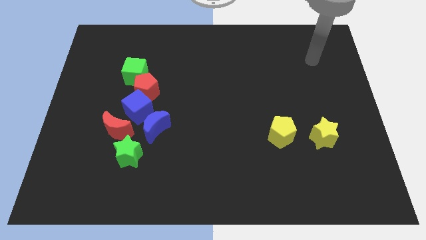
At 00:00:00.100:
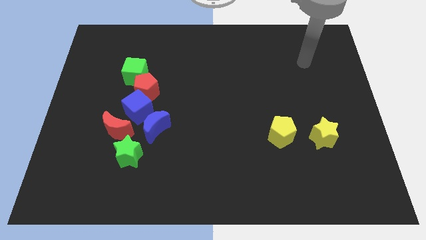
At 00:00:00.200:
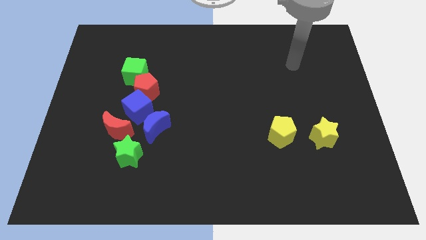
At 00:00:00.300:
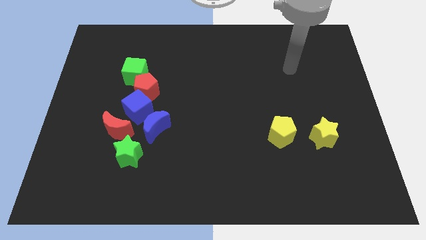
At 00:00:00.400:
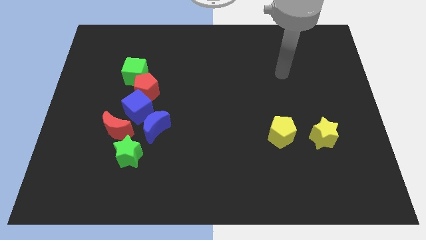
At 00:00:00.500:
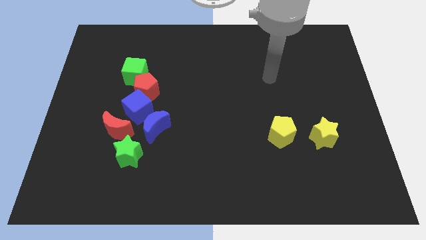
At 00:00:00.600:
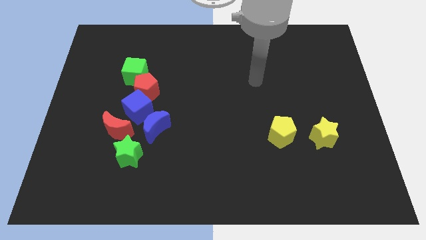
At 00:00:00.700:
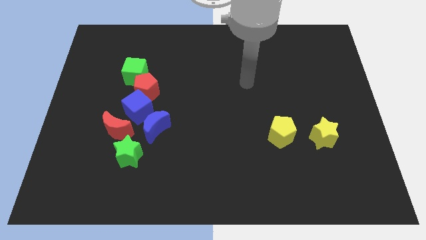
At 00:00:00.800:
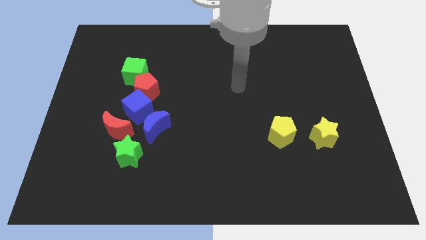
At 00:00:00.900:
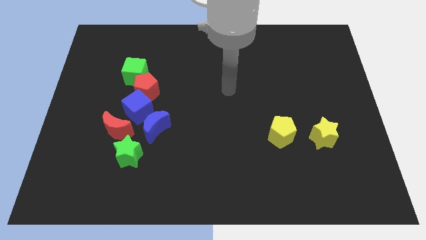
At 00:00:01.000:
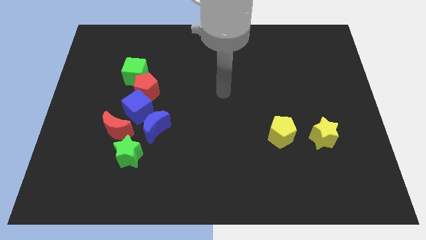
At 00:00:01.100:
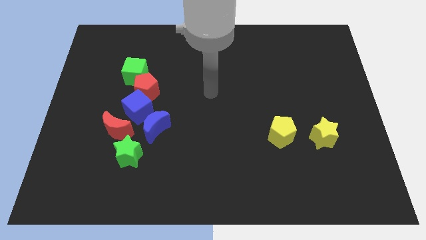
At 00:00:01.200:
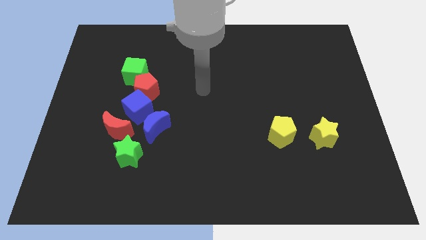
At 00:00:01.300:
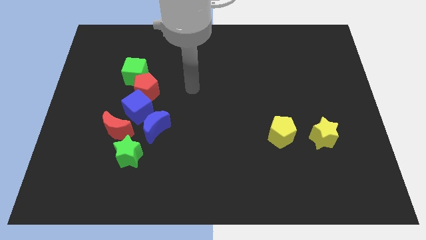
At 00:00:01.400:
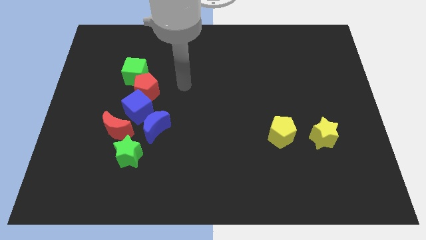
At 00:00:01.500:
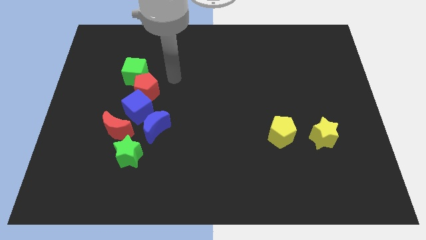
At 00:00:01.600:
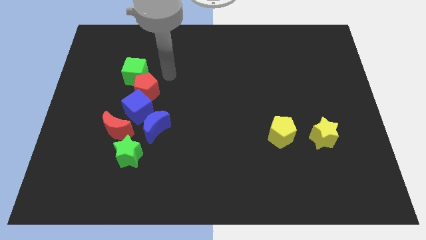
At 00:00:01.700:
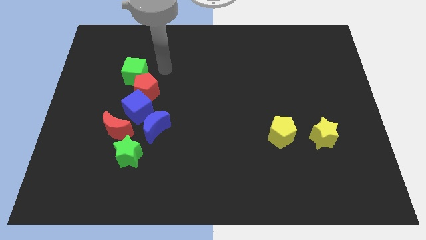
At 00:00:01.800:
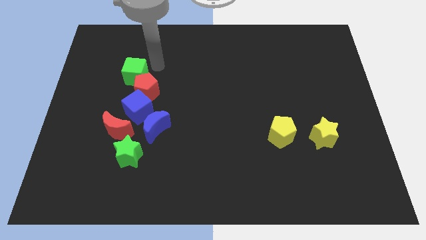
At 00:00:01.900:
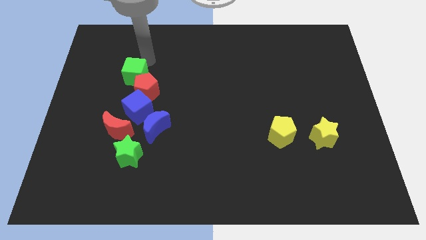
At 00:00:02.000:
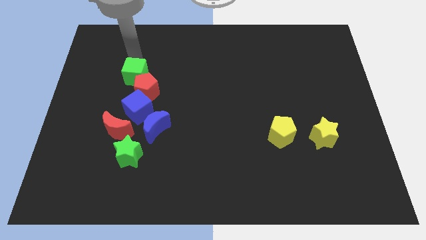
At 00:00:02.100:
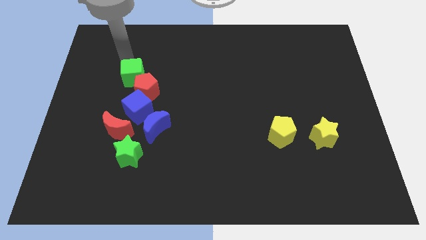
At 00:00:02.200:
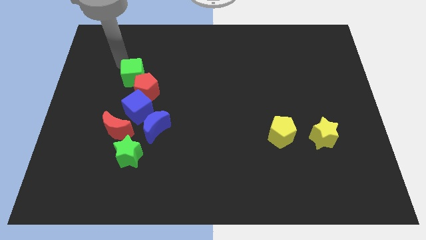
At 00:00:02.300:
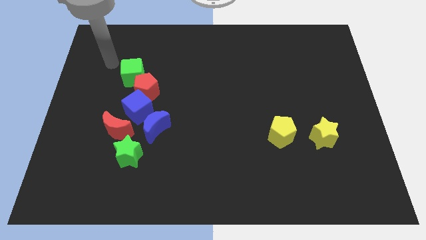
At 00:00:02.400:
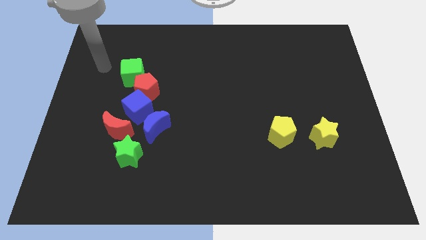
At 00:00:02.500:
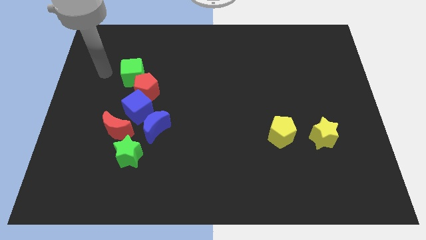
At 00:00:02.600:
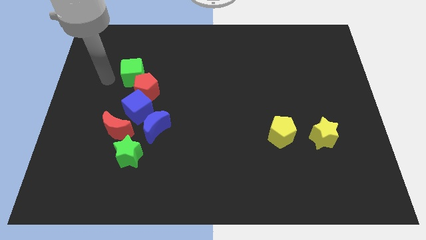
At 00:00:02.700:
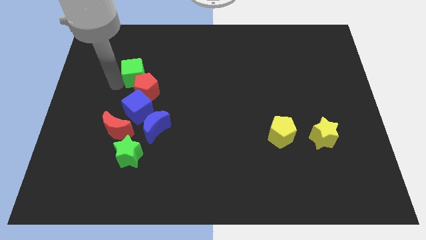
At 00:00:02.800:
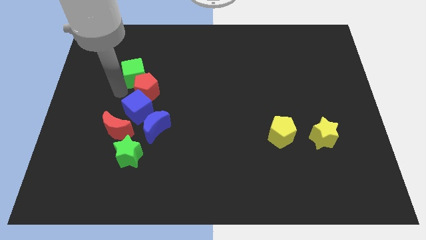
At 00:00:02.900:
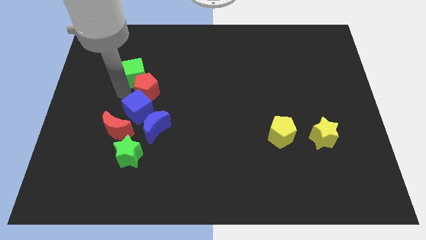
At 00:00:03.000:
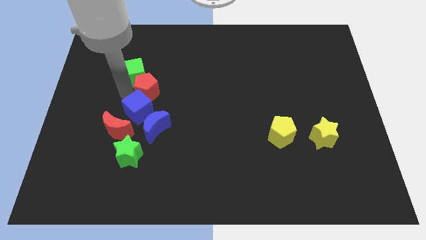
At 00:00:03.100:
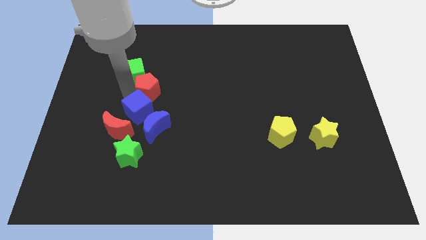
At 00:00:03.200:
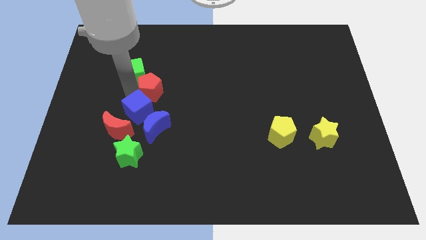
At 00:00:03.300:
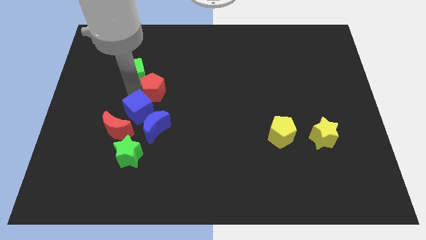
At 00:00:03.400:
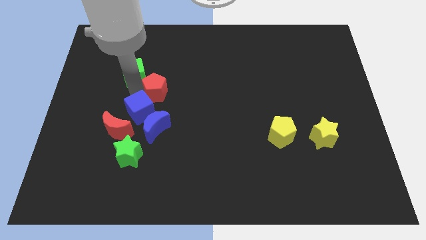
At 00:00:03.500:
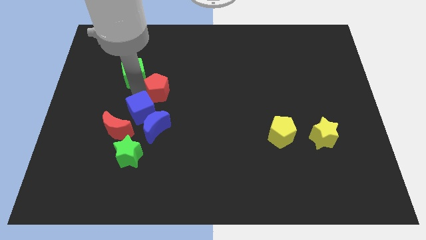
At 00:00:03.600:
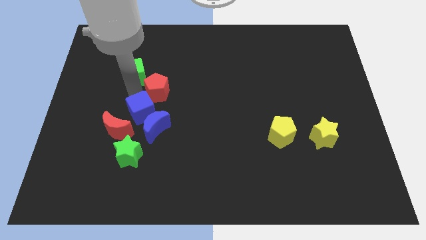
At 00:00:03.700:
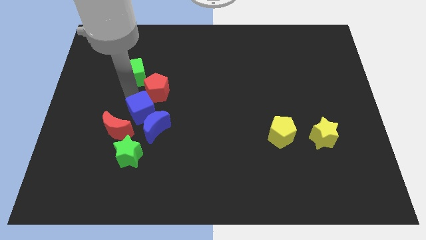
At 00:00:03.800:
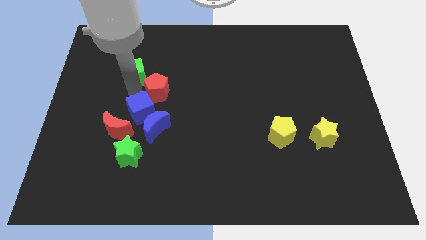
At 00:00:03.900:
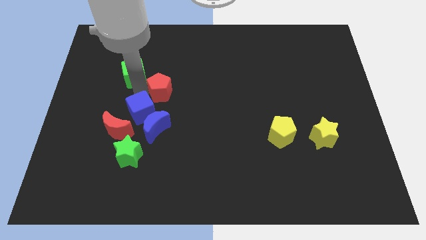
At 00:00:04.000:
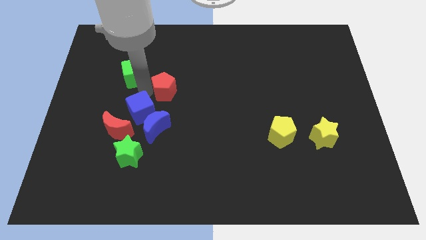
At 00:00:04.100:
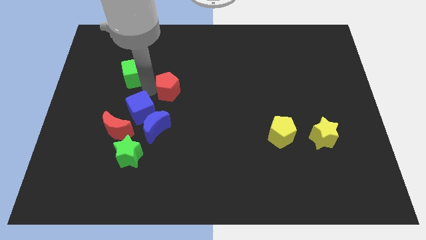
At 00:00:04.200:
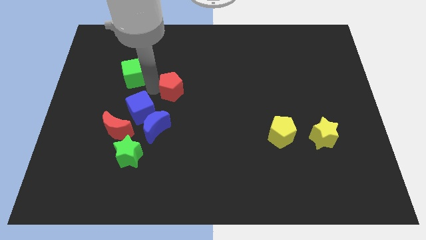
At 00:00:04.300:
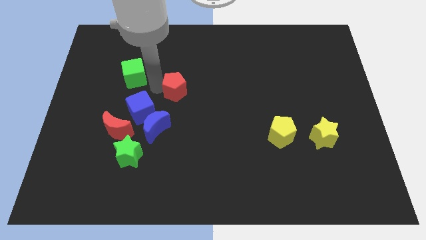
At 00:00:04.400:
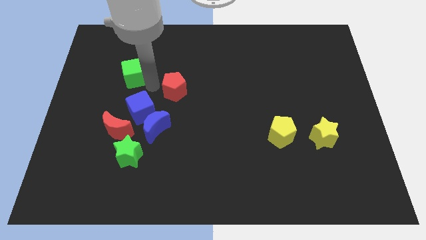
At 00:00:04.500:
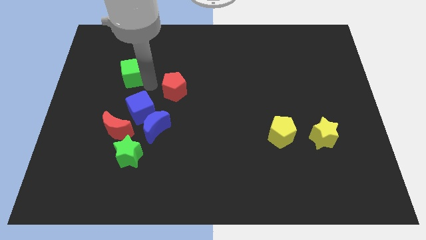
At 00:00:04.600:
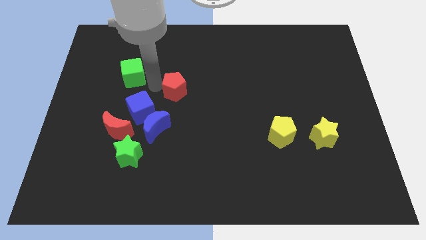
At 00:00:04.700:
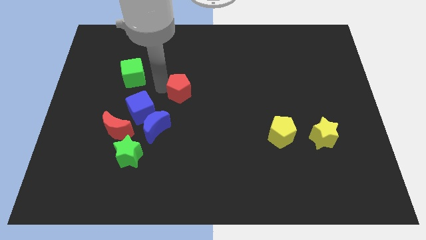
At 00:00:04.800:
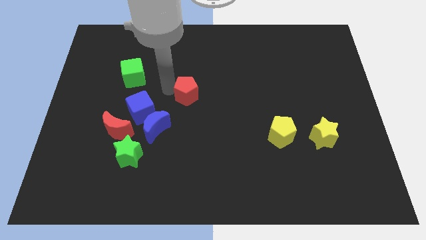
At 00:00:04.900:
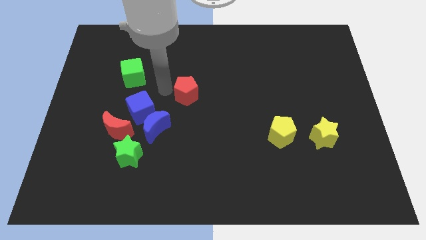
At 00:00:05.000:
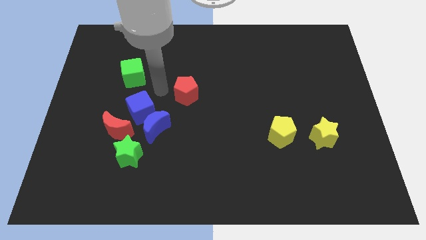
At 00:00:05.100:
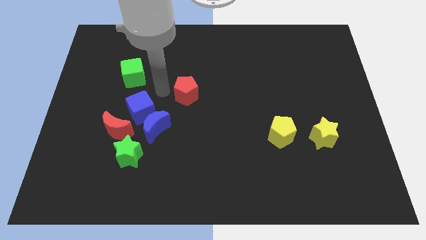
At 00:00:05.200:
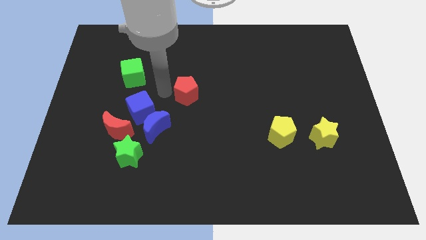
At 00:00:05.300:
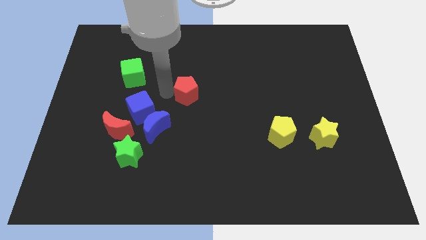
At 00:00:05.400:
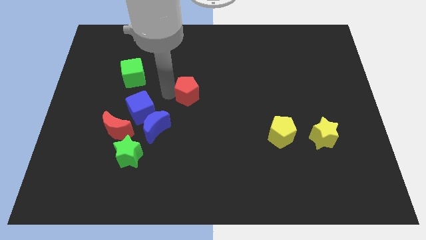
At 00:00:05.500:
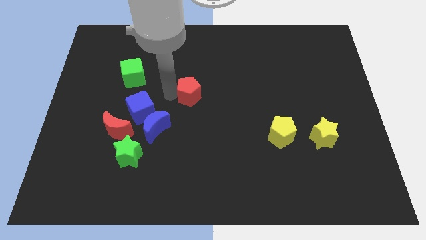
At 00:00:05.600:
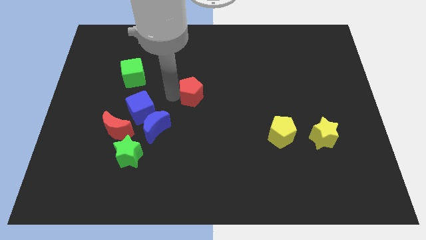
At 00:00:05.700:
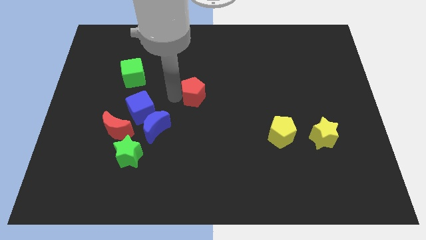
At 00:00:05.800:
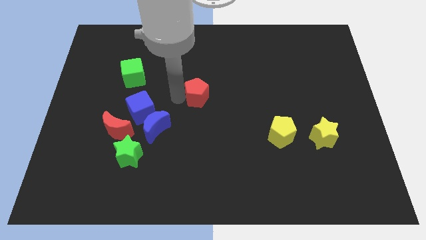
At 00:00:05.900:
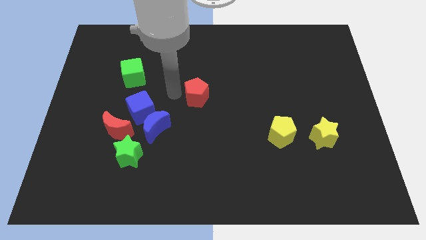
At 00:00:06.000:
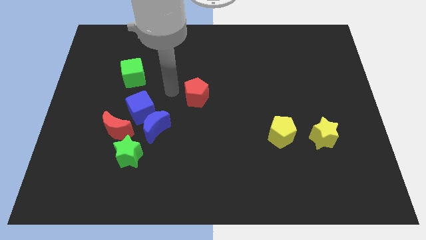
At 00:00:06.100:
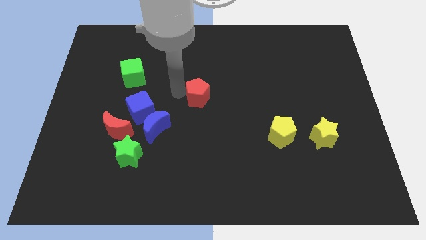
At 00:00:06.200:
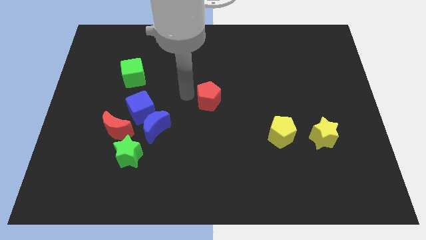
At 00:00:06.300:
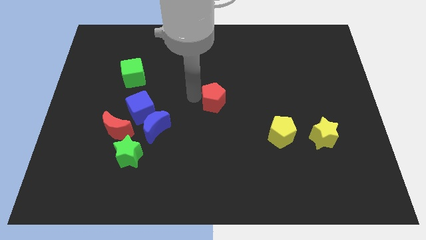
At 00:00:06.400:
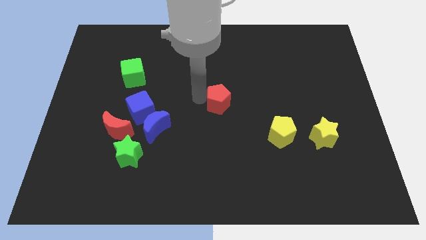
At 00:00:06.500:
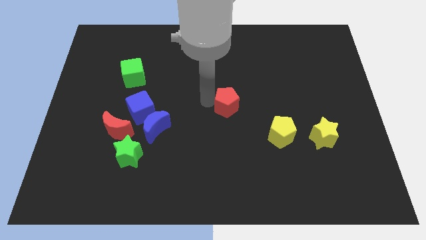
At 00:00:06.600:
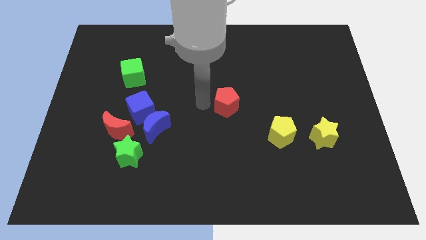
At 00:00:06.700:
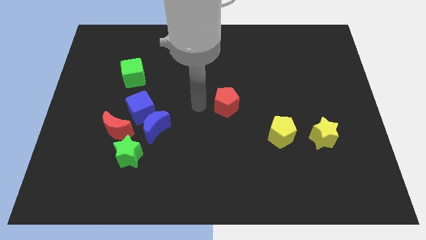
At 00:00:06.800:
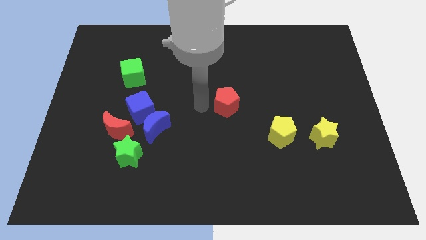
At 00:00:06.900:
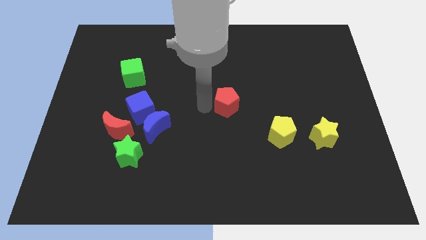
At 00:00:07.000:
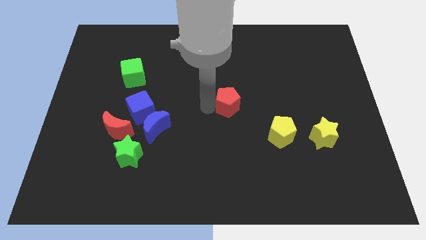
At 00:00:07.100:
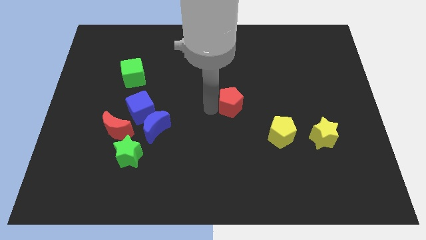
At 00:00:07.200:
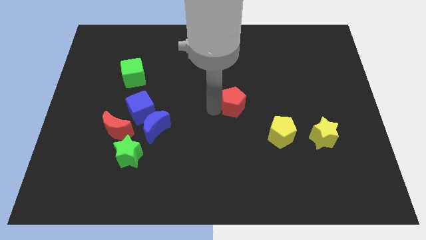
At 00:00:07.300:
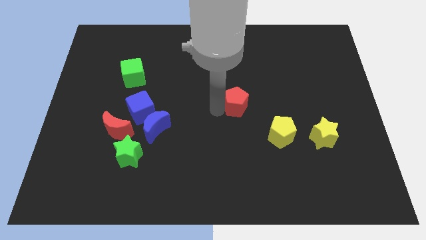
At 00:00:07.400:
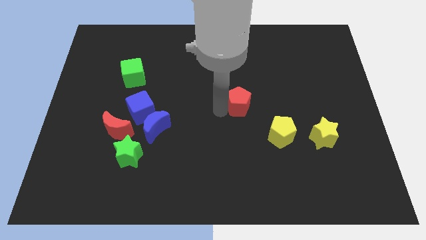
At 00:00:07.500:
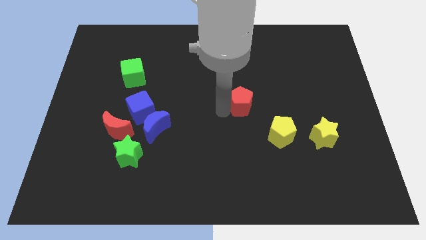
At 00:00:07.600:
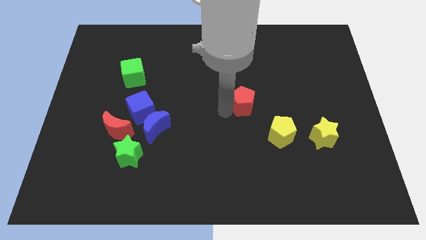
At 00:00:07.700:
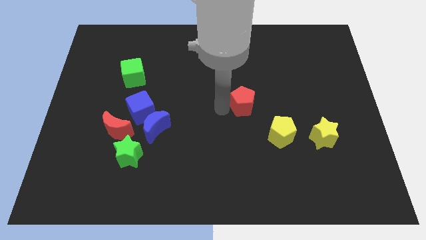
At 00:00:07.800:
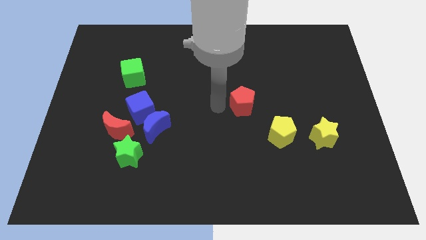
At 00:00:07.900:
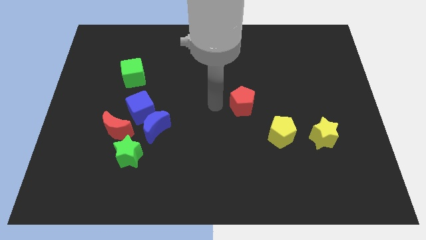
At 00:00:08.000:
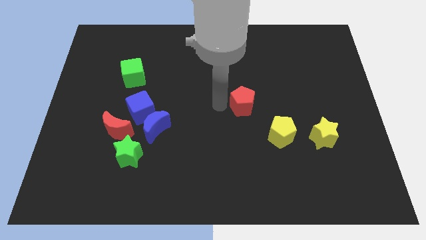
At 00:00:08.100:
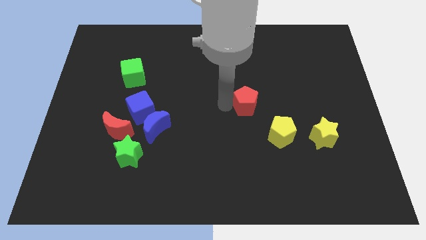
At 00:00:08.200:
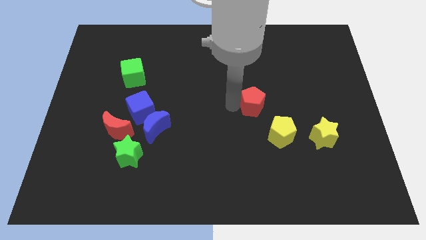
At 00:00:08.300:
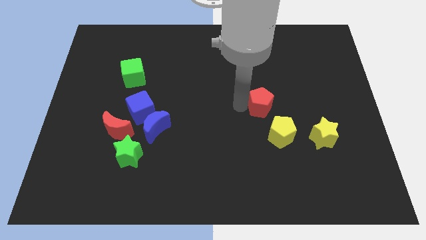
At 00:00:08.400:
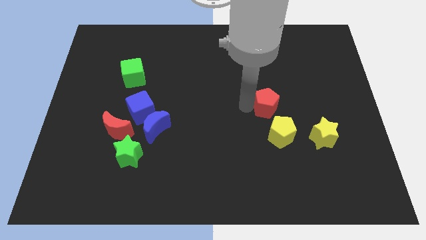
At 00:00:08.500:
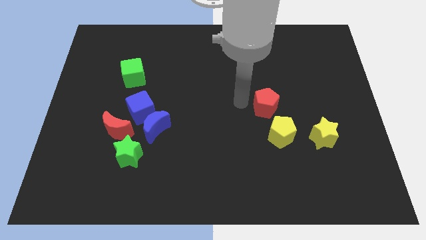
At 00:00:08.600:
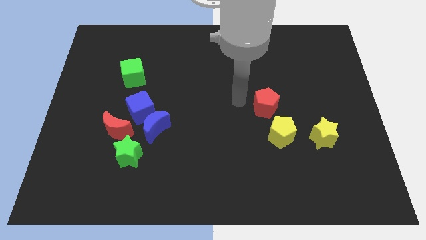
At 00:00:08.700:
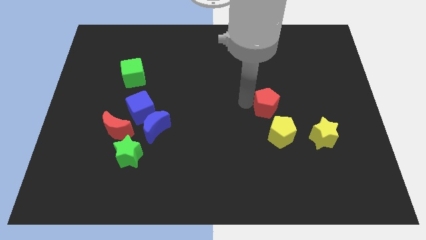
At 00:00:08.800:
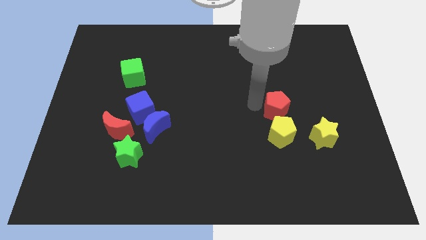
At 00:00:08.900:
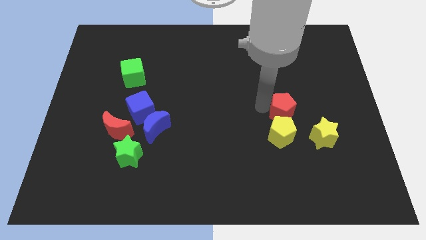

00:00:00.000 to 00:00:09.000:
move the red pentagon to the top right of the yellow pentagon
